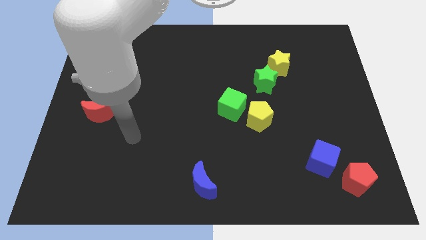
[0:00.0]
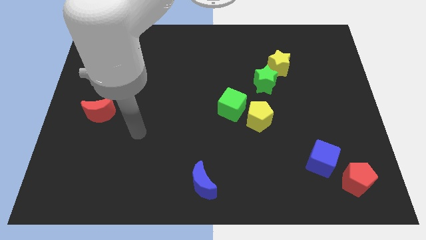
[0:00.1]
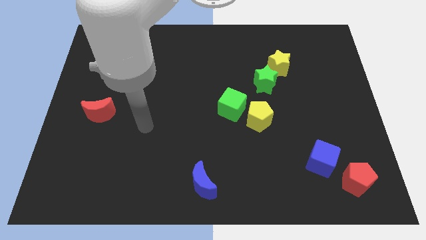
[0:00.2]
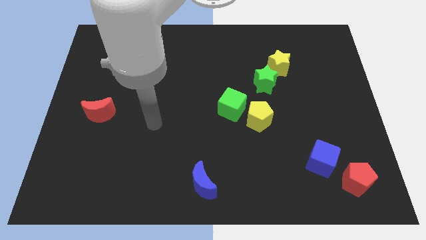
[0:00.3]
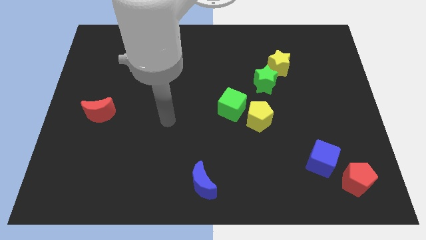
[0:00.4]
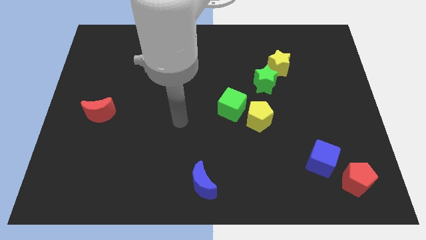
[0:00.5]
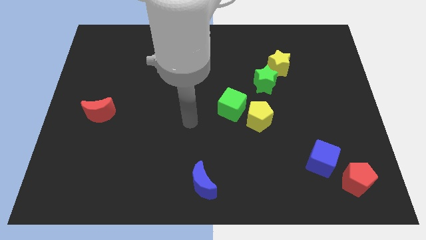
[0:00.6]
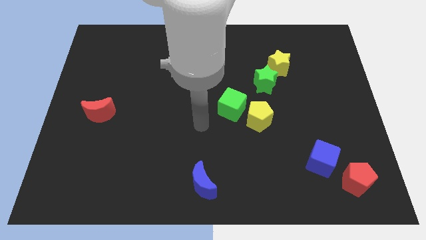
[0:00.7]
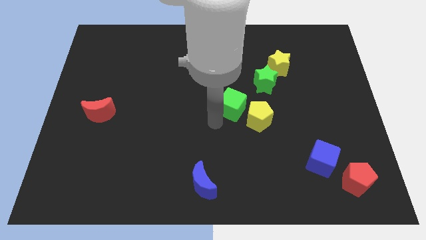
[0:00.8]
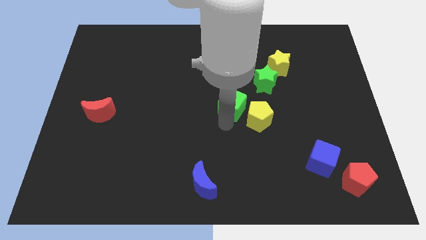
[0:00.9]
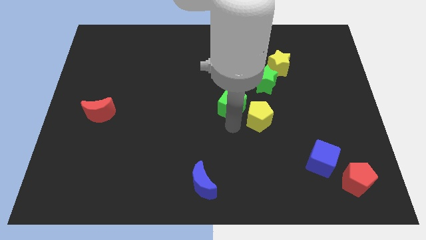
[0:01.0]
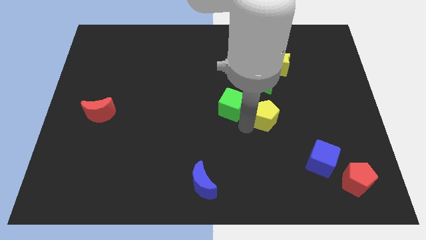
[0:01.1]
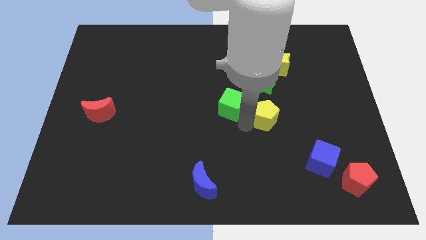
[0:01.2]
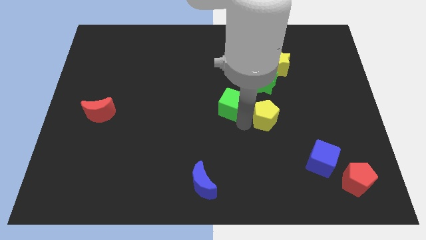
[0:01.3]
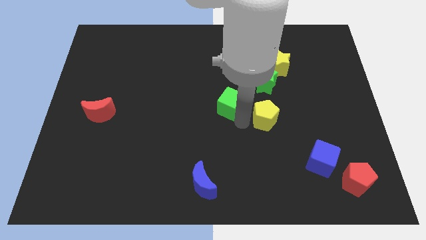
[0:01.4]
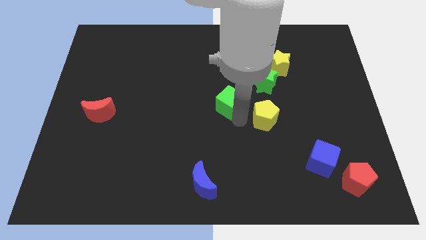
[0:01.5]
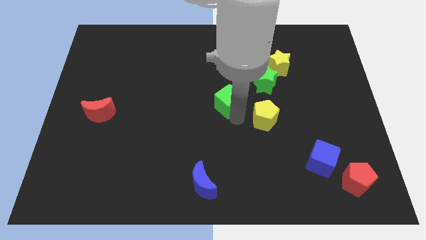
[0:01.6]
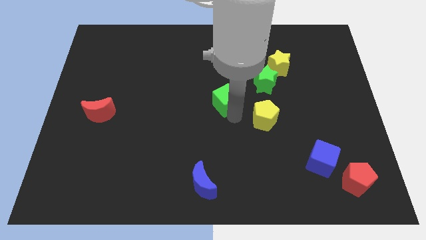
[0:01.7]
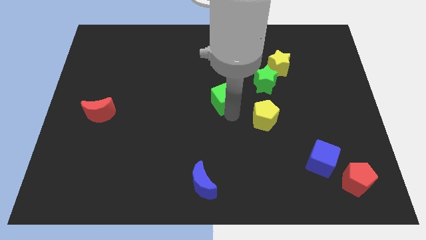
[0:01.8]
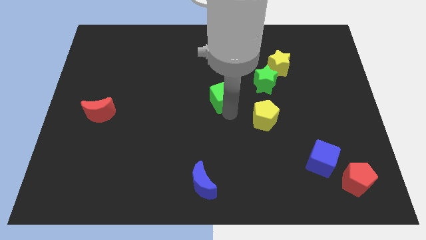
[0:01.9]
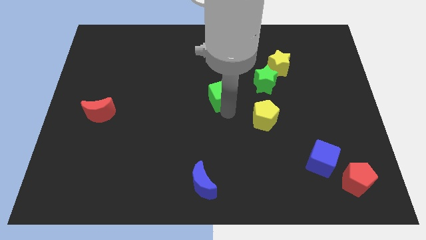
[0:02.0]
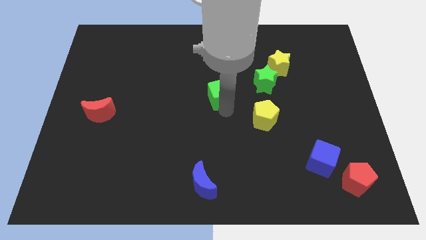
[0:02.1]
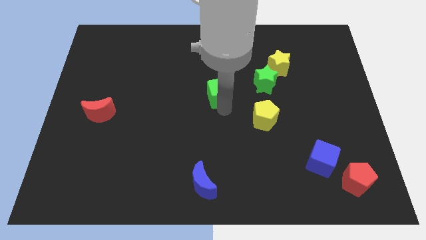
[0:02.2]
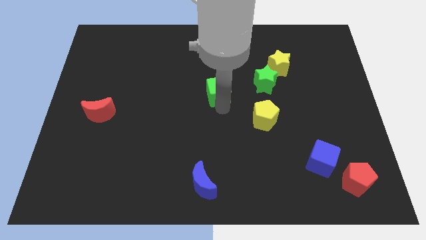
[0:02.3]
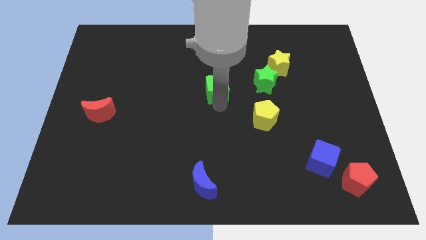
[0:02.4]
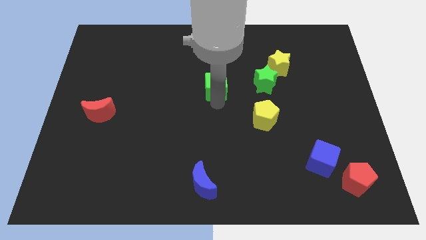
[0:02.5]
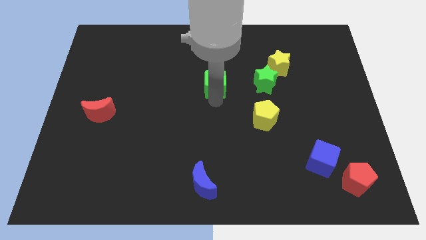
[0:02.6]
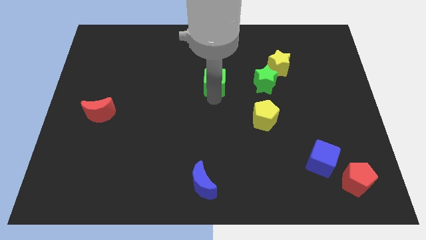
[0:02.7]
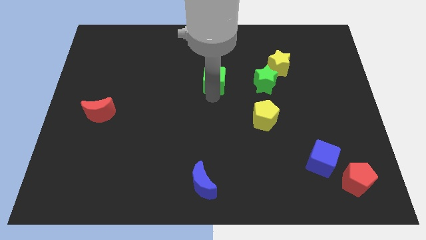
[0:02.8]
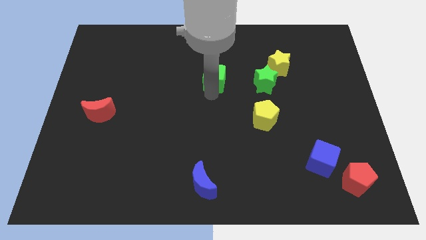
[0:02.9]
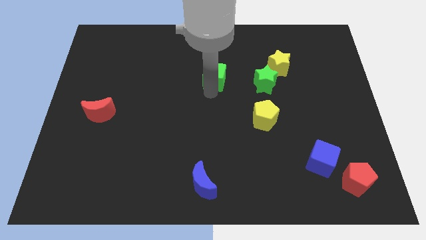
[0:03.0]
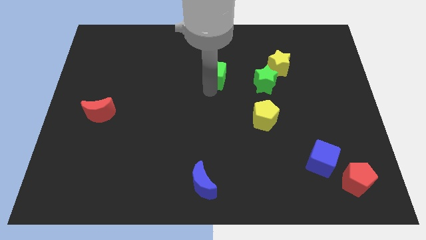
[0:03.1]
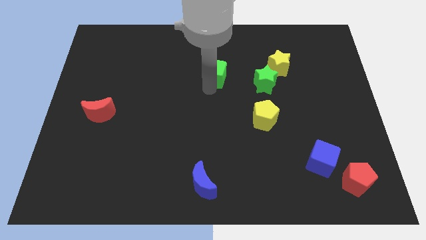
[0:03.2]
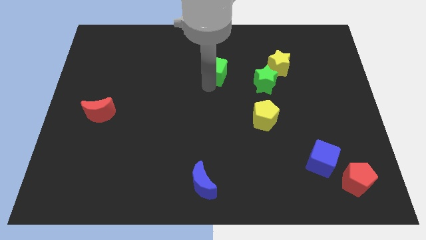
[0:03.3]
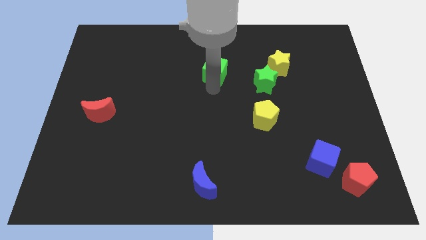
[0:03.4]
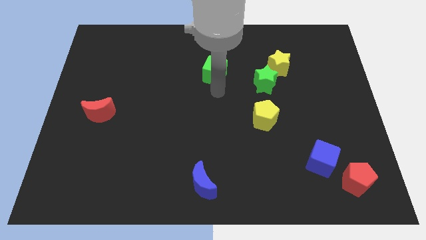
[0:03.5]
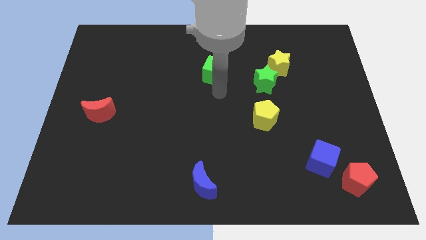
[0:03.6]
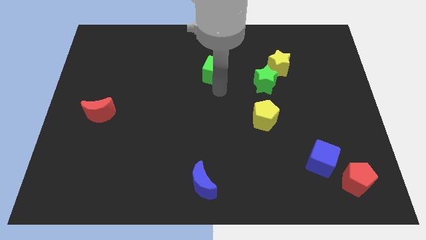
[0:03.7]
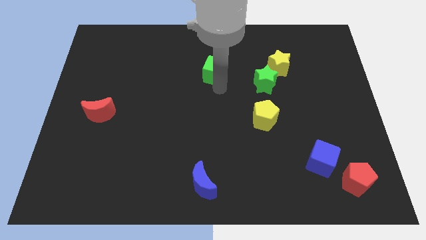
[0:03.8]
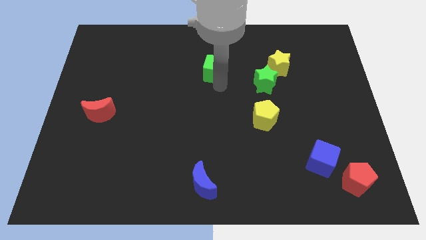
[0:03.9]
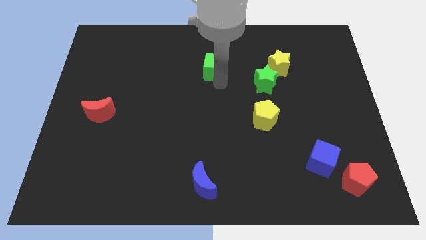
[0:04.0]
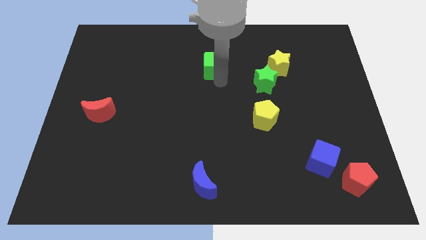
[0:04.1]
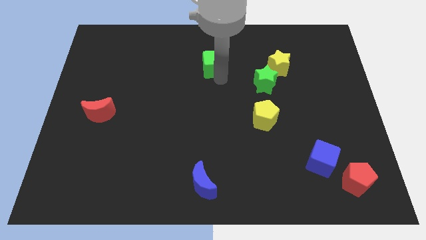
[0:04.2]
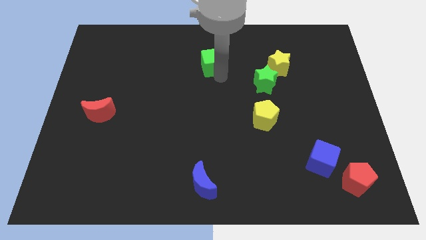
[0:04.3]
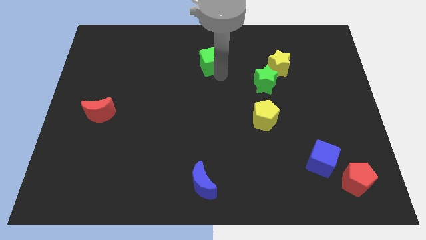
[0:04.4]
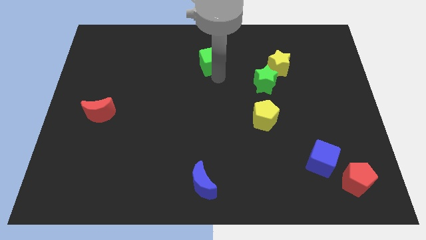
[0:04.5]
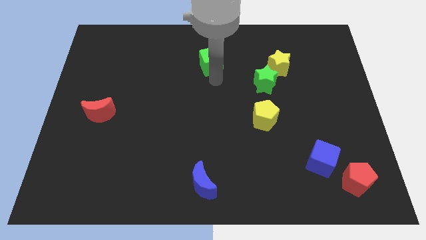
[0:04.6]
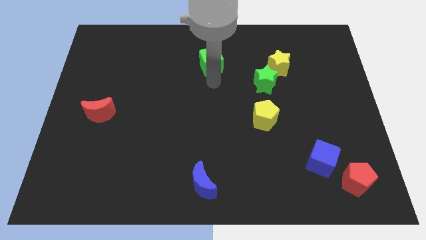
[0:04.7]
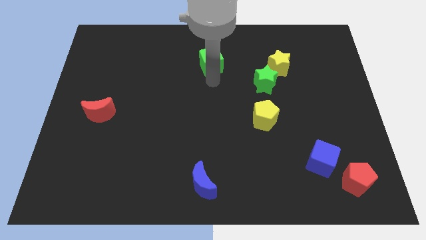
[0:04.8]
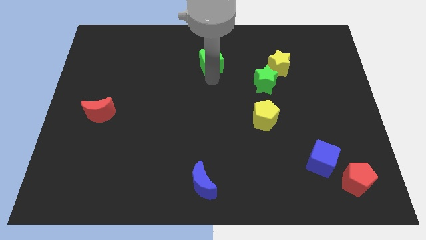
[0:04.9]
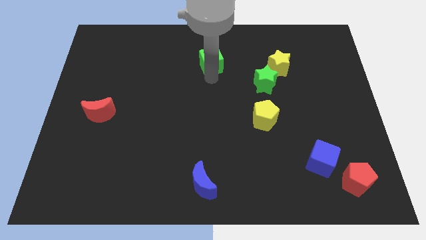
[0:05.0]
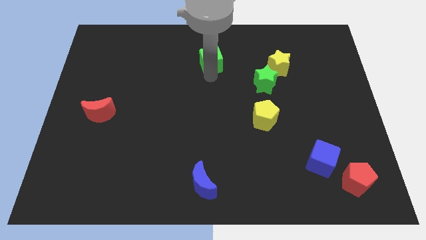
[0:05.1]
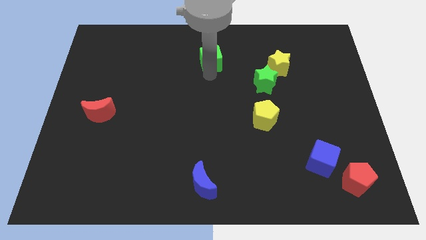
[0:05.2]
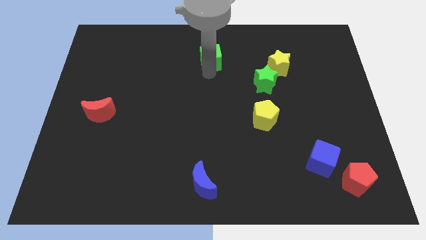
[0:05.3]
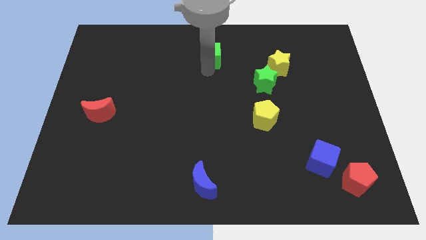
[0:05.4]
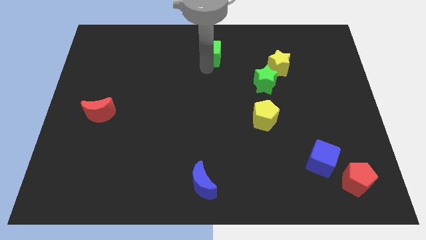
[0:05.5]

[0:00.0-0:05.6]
move the green cube to the top

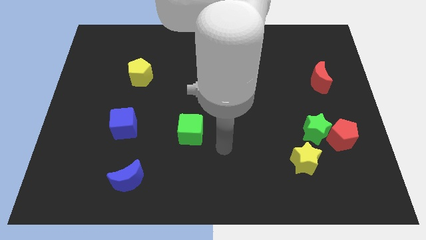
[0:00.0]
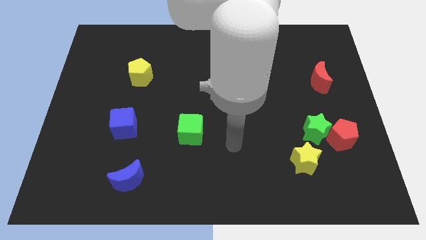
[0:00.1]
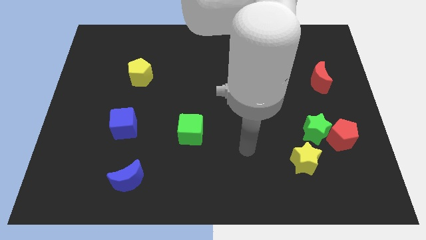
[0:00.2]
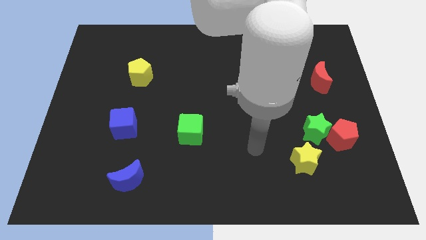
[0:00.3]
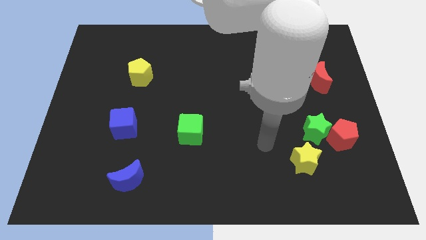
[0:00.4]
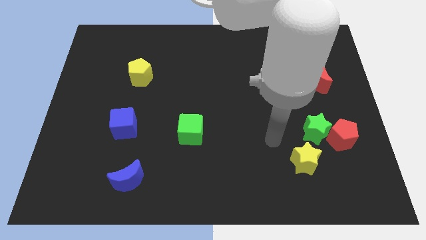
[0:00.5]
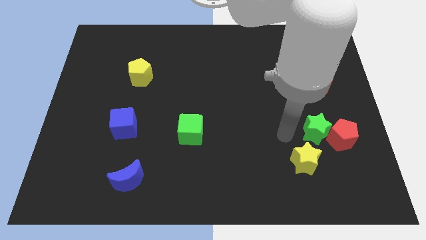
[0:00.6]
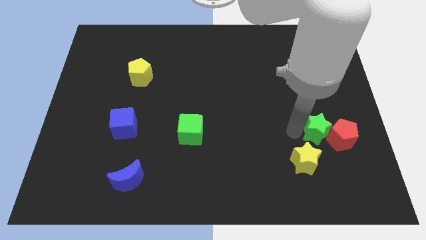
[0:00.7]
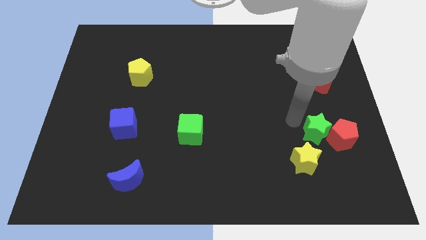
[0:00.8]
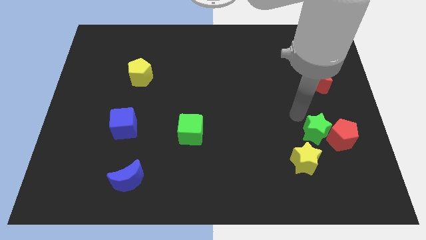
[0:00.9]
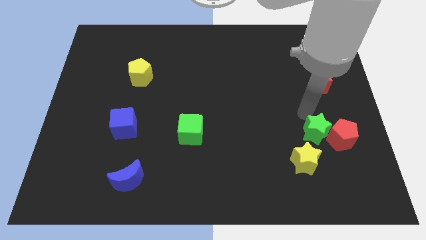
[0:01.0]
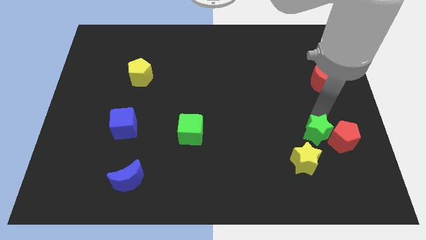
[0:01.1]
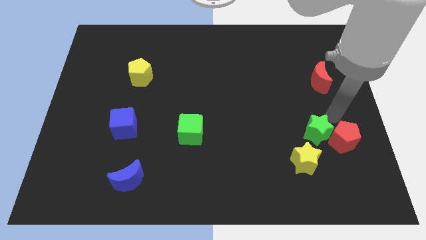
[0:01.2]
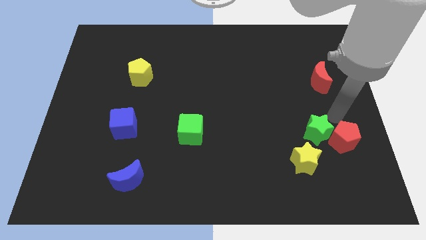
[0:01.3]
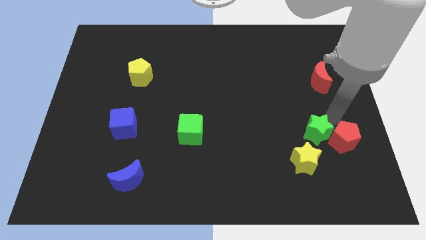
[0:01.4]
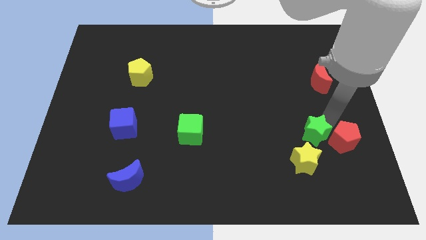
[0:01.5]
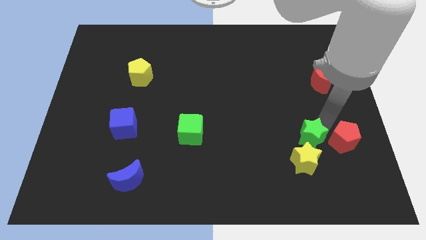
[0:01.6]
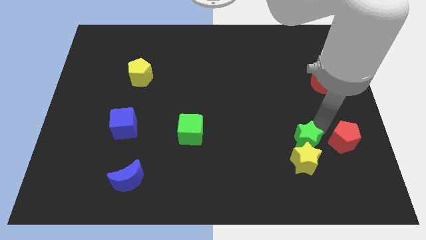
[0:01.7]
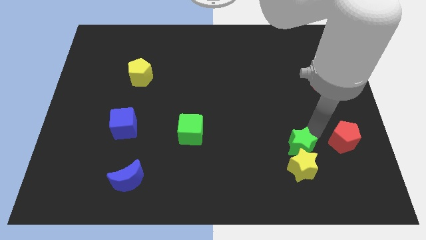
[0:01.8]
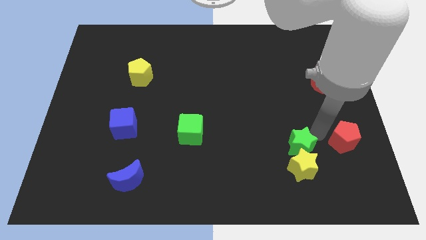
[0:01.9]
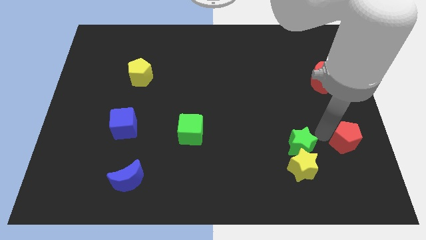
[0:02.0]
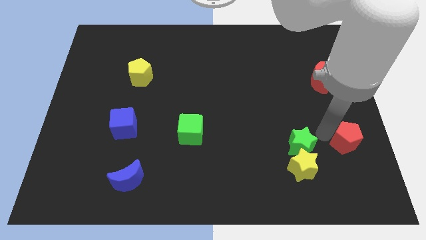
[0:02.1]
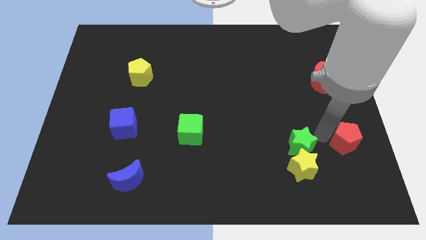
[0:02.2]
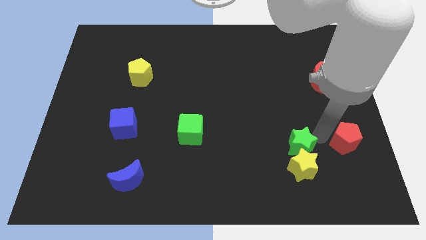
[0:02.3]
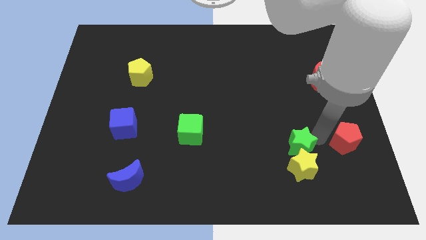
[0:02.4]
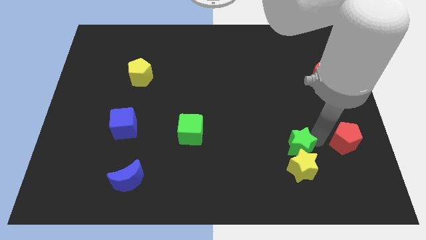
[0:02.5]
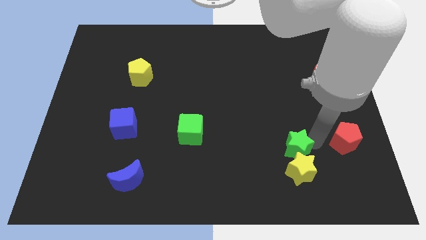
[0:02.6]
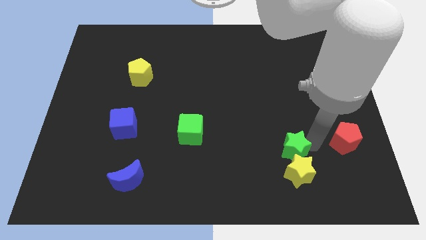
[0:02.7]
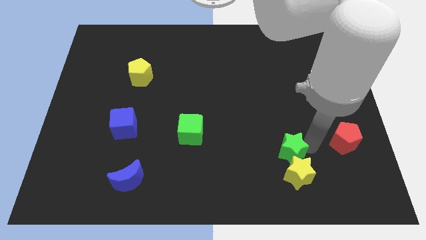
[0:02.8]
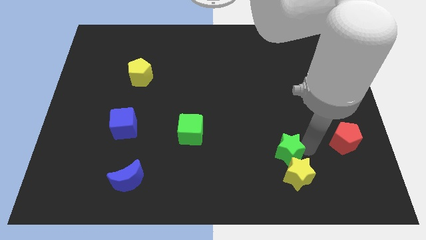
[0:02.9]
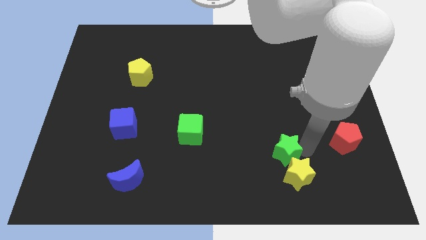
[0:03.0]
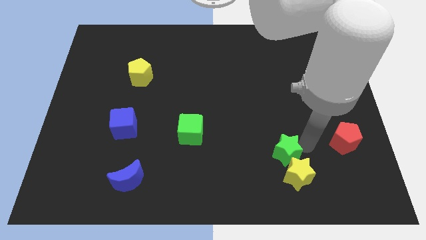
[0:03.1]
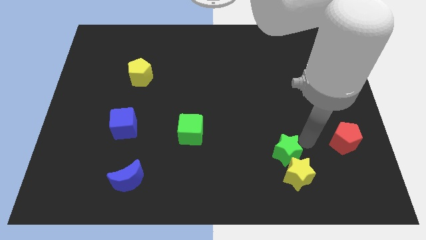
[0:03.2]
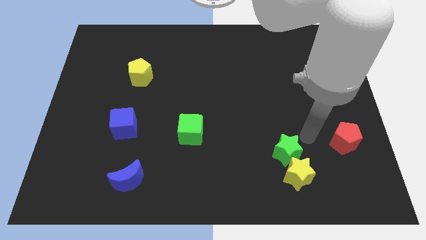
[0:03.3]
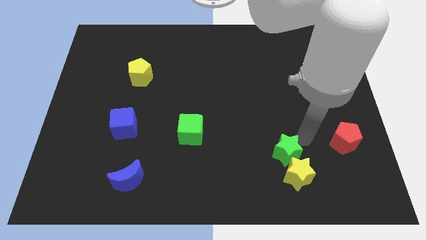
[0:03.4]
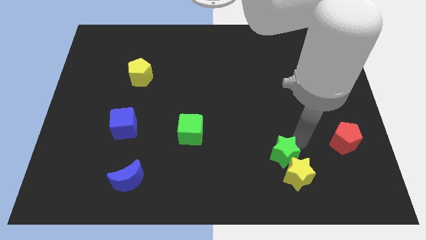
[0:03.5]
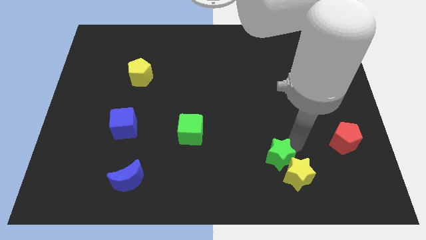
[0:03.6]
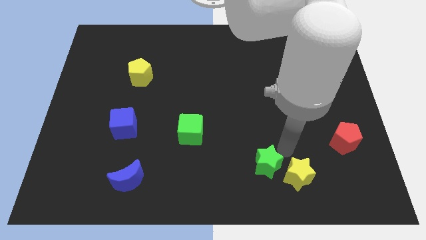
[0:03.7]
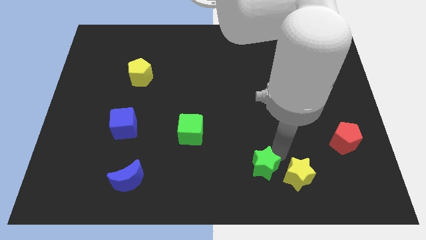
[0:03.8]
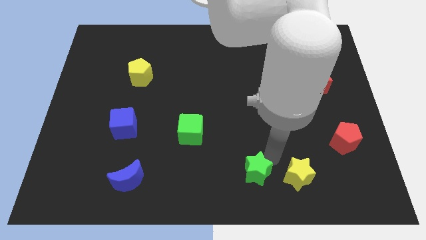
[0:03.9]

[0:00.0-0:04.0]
push the green star to the bottom side
